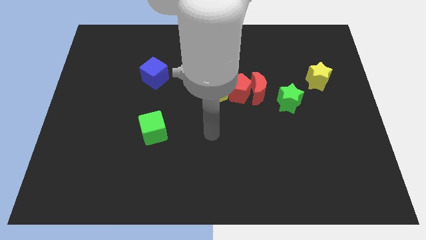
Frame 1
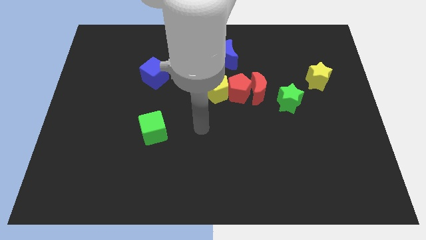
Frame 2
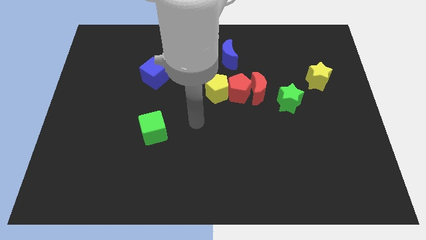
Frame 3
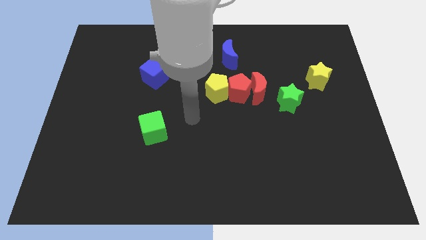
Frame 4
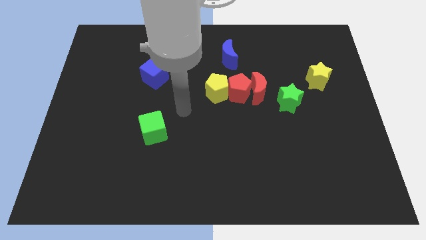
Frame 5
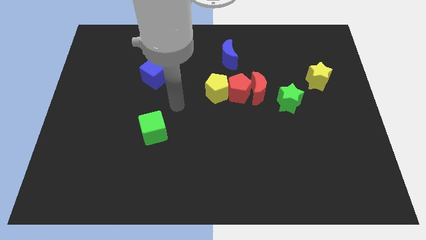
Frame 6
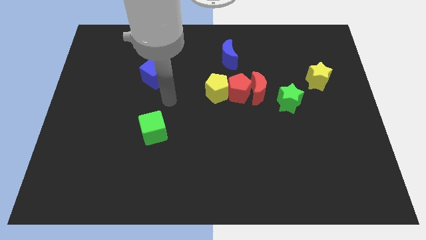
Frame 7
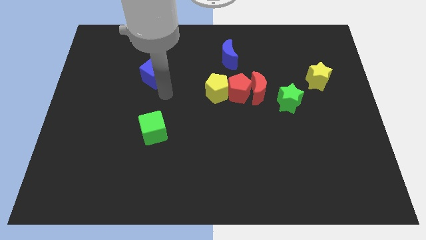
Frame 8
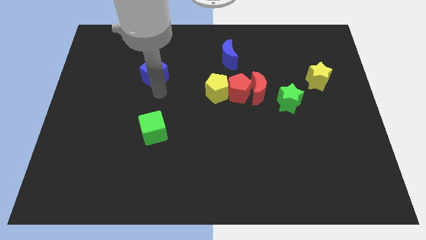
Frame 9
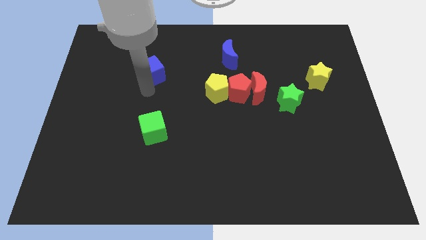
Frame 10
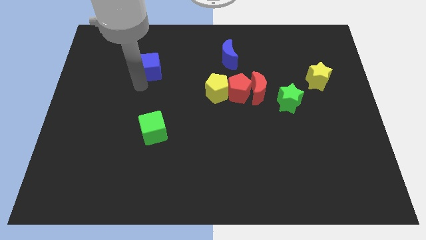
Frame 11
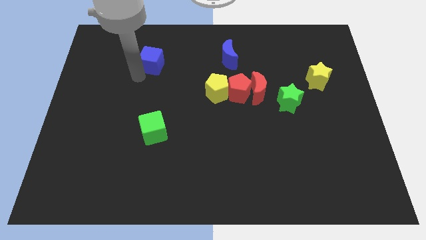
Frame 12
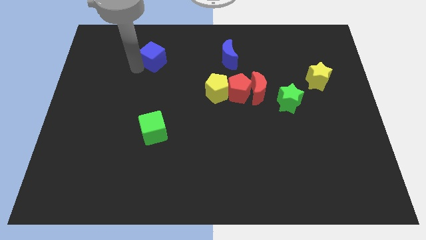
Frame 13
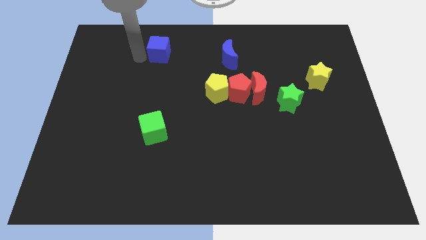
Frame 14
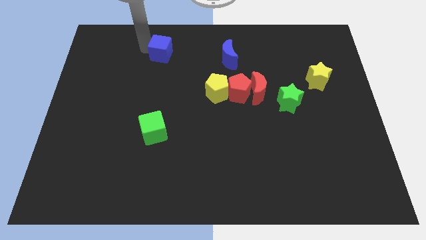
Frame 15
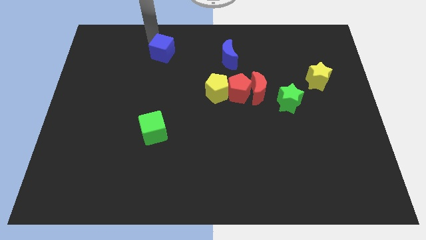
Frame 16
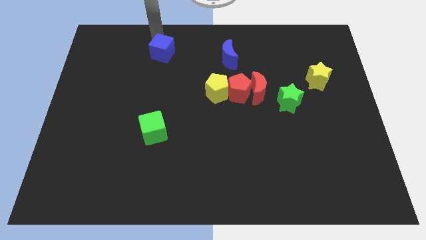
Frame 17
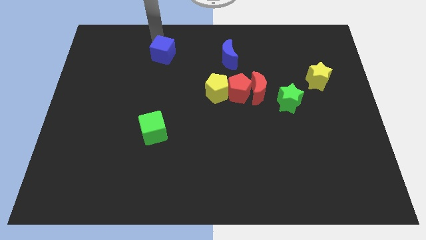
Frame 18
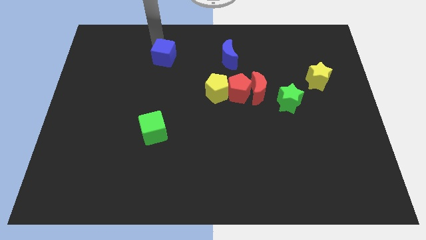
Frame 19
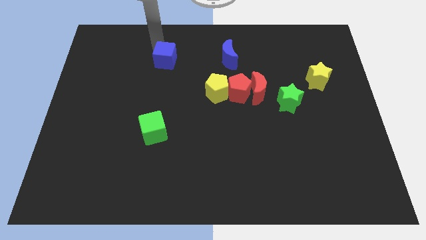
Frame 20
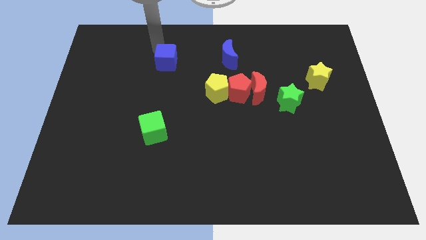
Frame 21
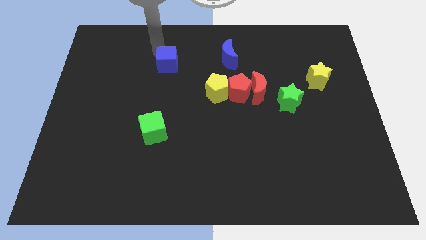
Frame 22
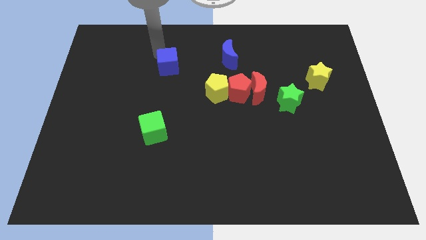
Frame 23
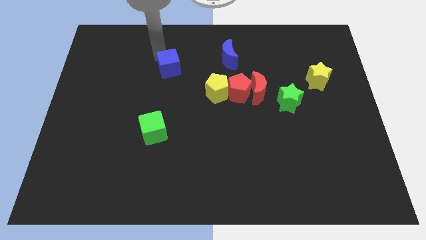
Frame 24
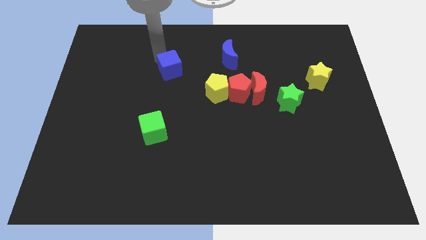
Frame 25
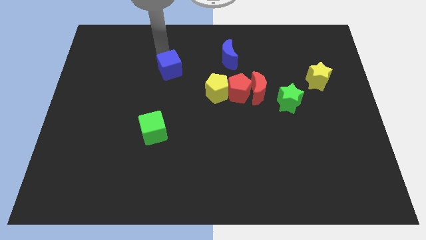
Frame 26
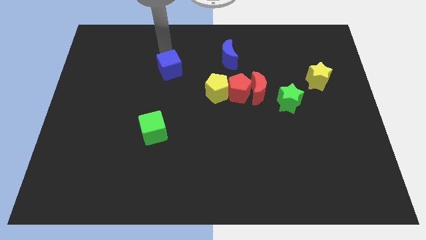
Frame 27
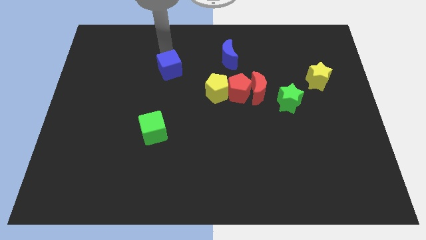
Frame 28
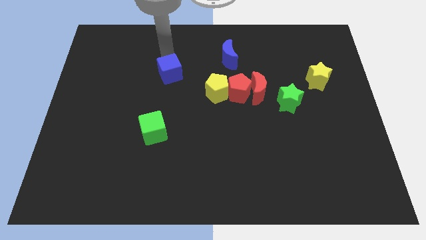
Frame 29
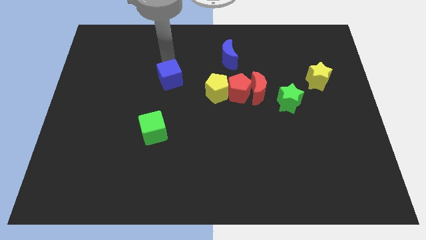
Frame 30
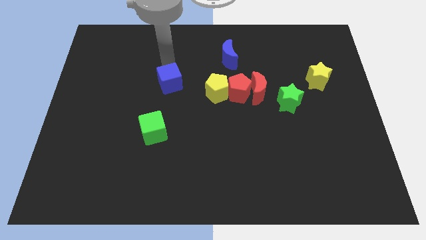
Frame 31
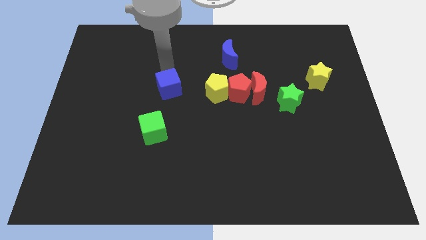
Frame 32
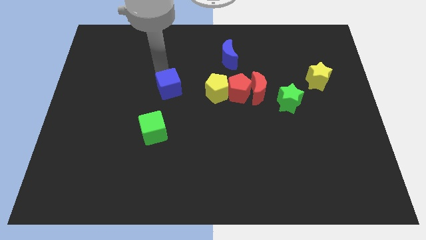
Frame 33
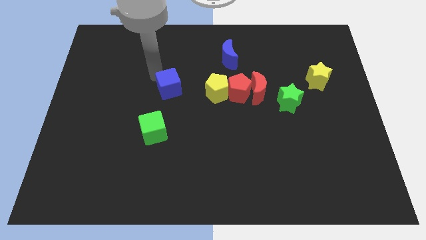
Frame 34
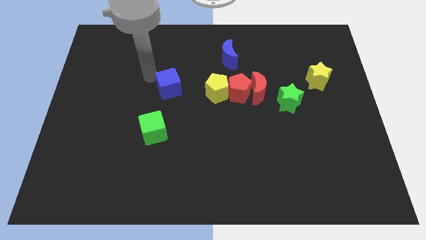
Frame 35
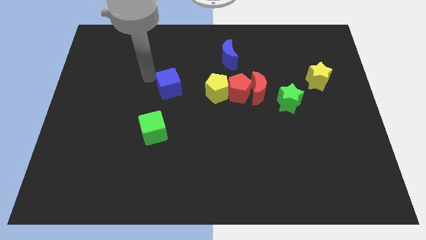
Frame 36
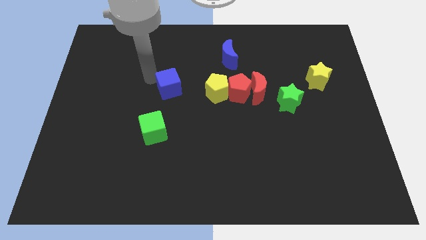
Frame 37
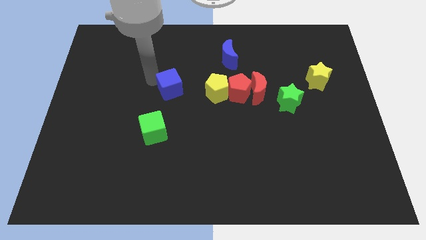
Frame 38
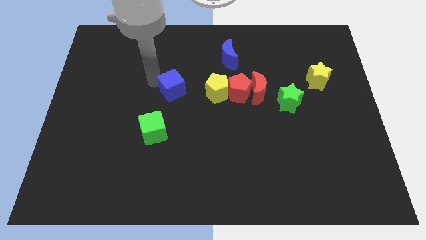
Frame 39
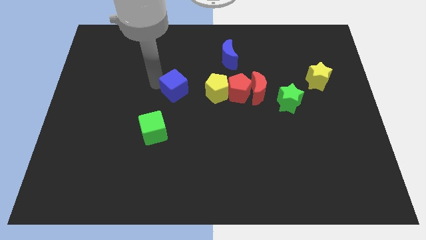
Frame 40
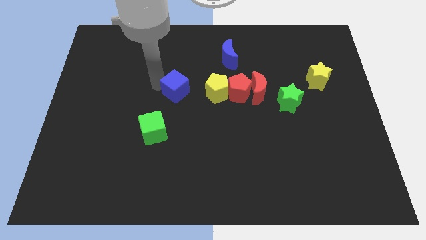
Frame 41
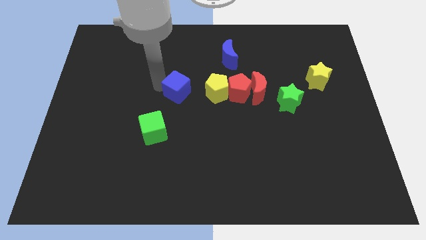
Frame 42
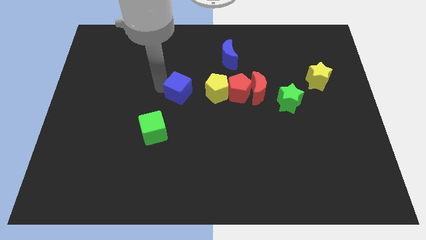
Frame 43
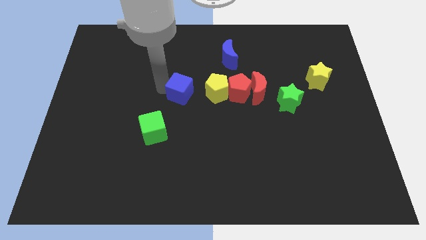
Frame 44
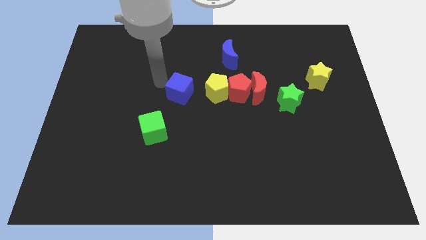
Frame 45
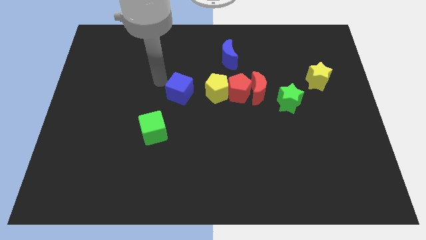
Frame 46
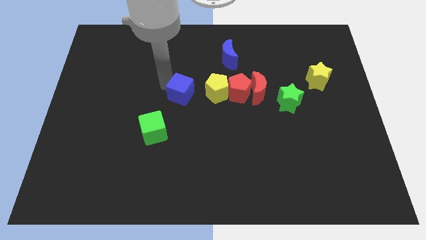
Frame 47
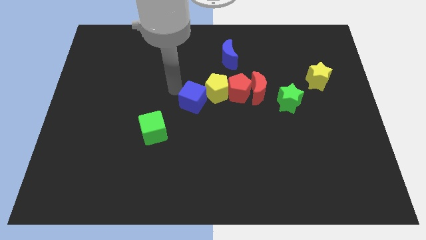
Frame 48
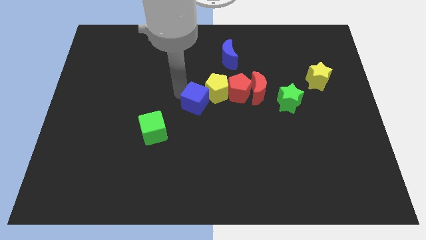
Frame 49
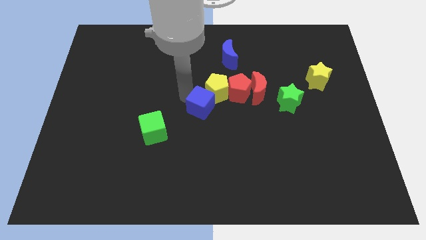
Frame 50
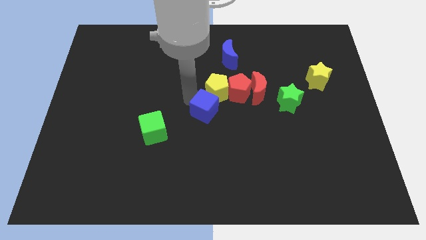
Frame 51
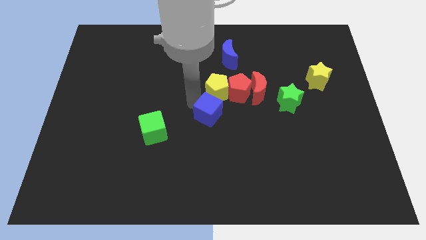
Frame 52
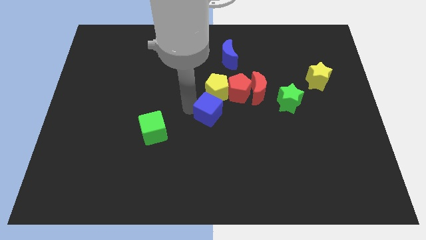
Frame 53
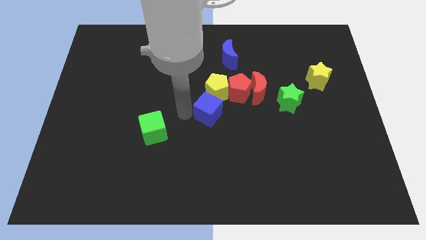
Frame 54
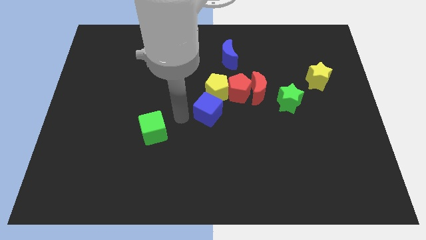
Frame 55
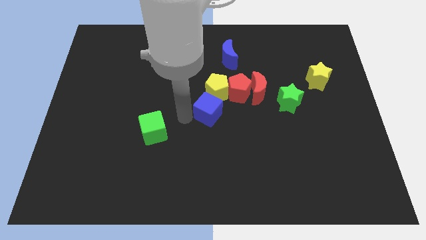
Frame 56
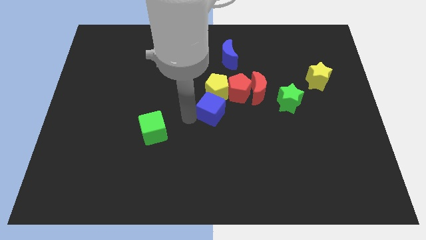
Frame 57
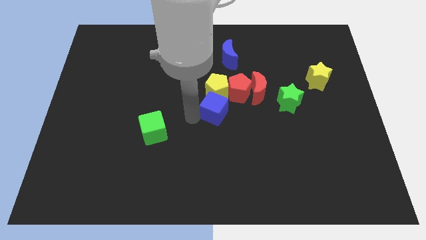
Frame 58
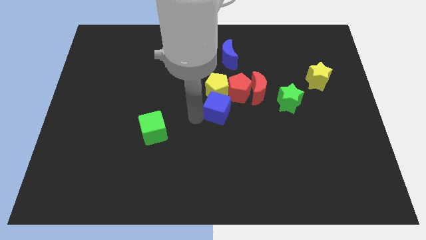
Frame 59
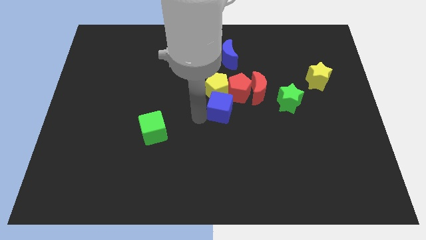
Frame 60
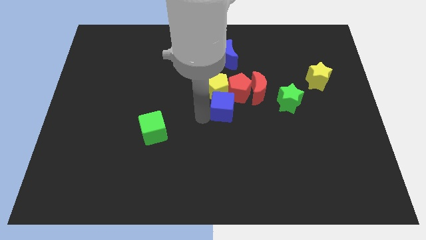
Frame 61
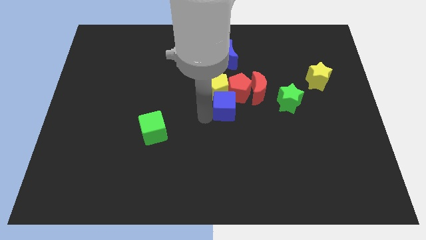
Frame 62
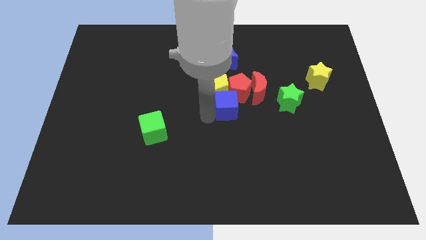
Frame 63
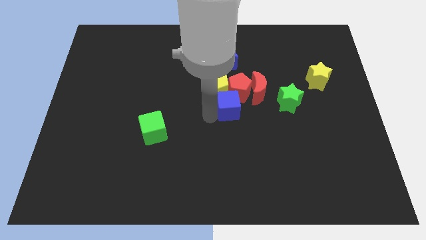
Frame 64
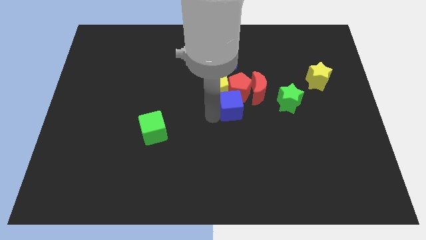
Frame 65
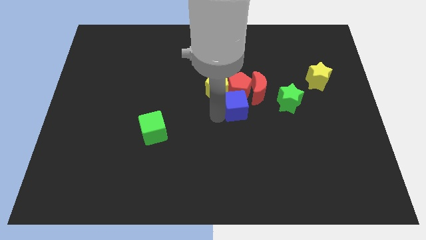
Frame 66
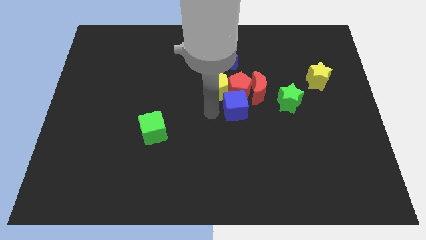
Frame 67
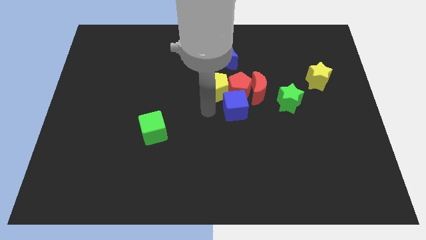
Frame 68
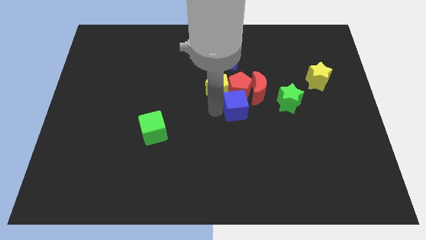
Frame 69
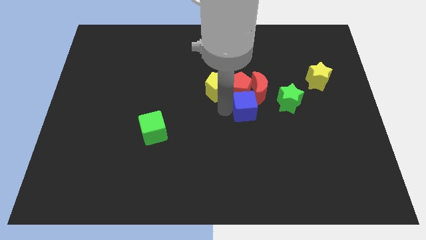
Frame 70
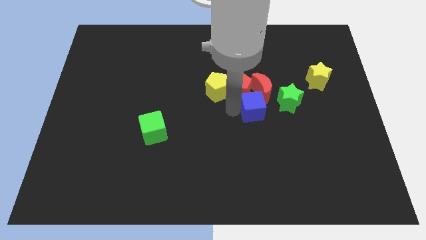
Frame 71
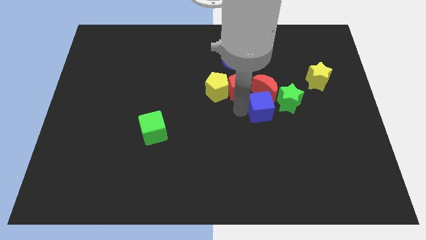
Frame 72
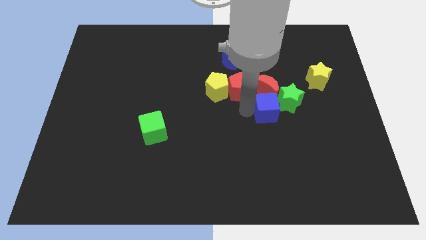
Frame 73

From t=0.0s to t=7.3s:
move the blue cube to the green star
